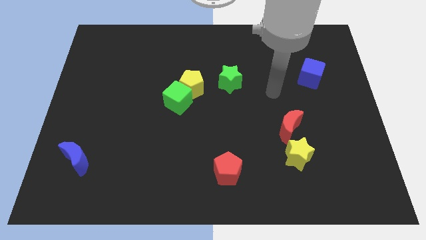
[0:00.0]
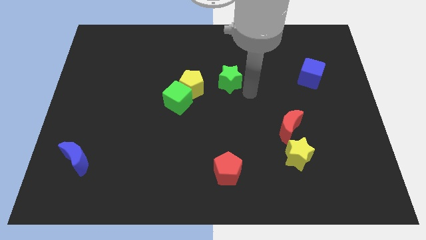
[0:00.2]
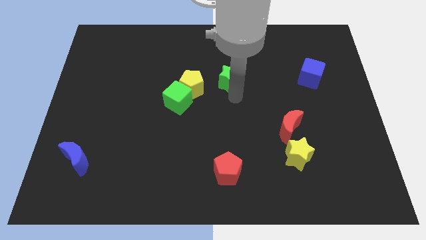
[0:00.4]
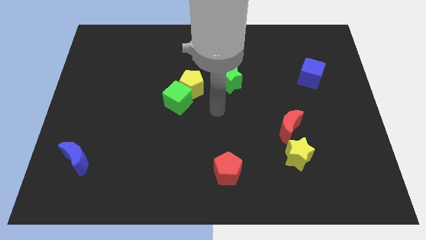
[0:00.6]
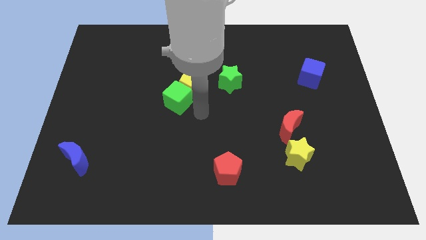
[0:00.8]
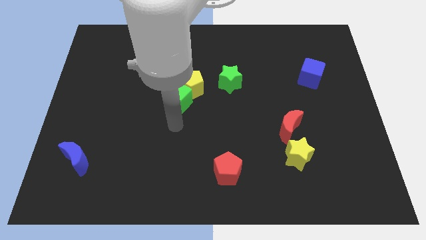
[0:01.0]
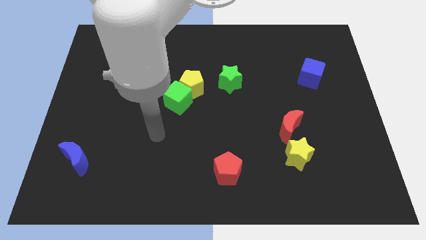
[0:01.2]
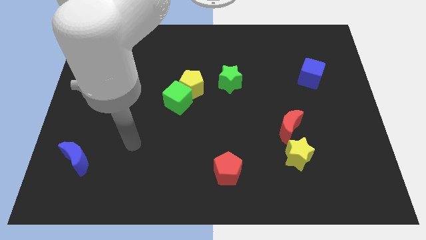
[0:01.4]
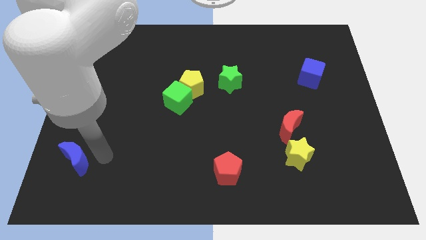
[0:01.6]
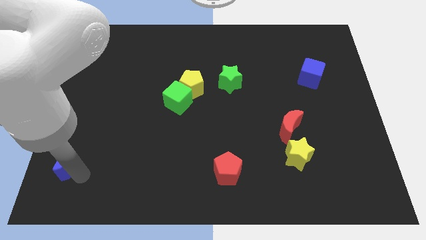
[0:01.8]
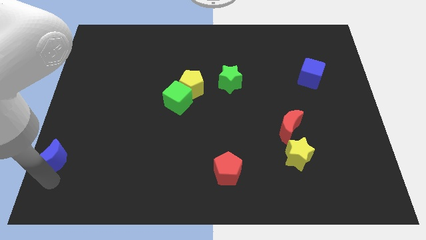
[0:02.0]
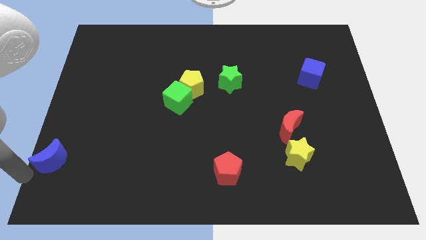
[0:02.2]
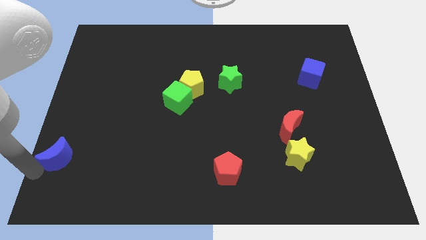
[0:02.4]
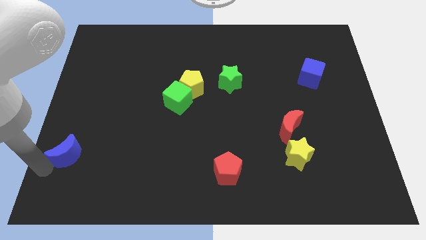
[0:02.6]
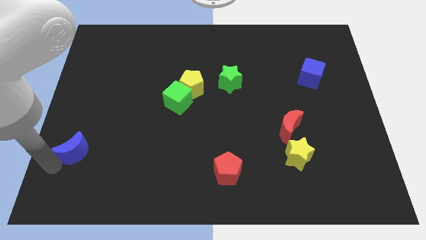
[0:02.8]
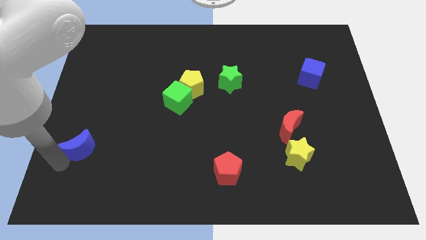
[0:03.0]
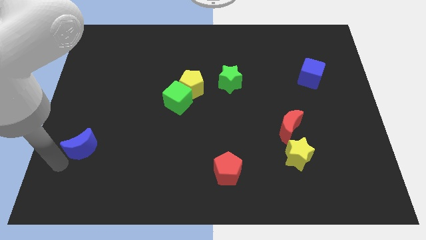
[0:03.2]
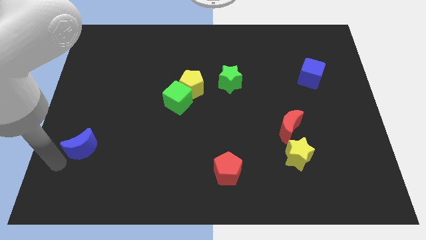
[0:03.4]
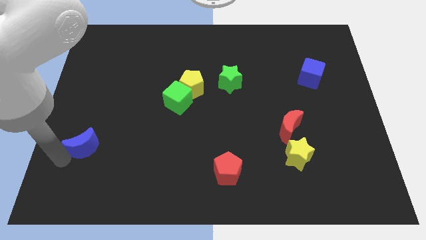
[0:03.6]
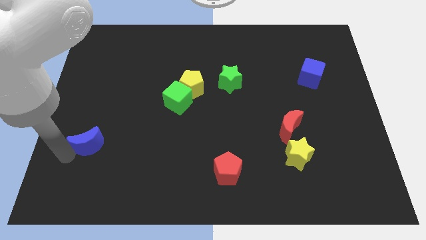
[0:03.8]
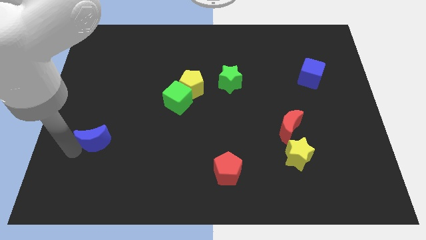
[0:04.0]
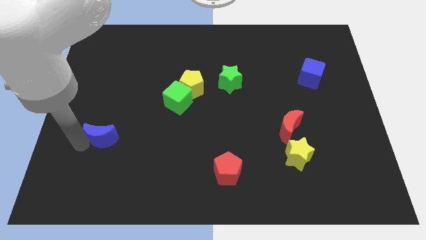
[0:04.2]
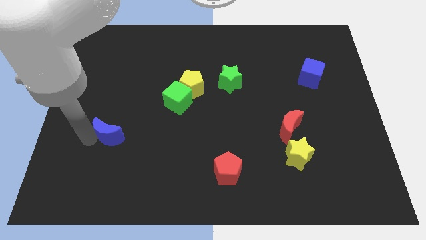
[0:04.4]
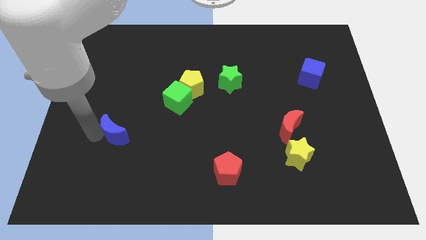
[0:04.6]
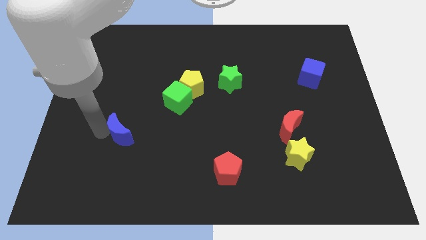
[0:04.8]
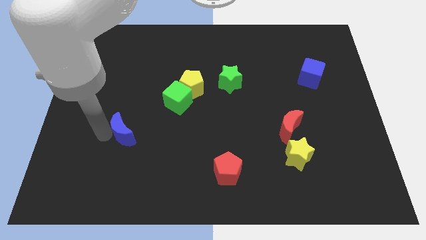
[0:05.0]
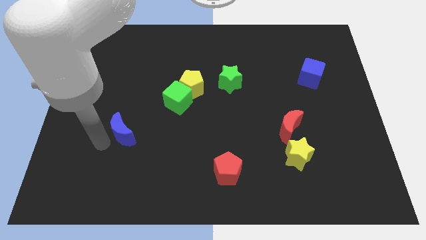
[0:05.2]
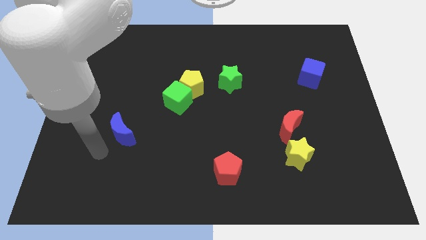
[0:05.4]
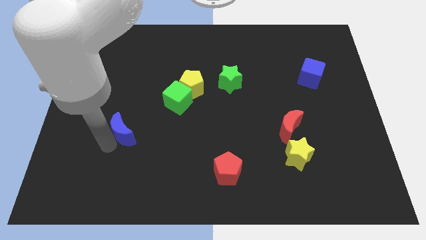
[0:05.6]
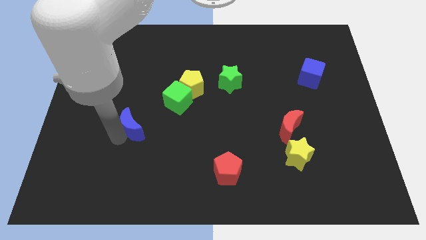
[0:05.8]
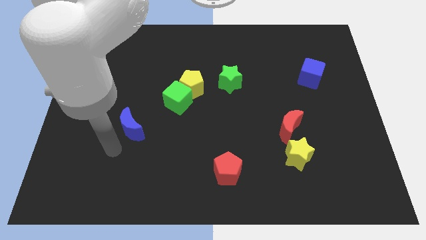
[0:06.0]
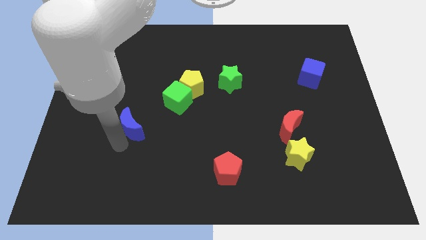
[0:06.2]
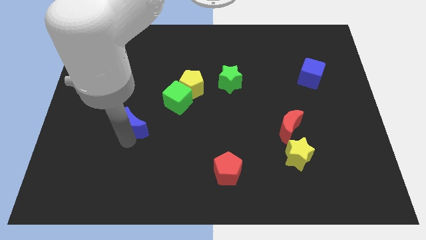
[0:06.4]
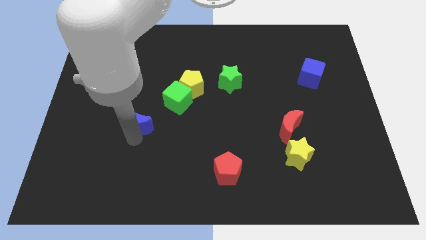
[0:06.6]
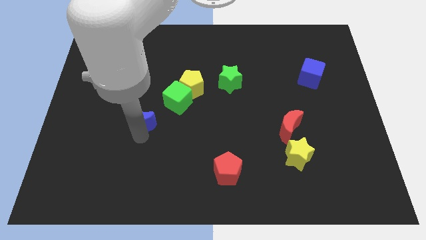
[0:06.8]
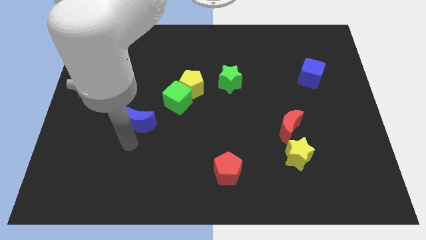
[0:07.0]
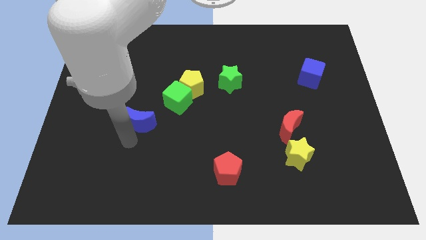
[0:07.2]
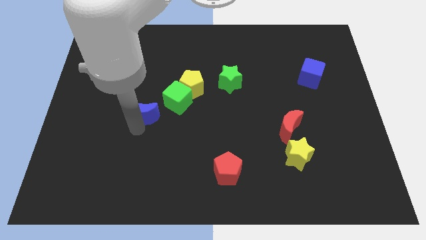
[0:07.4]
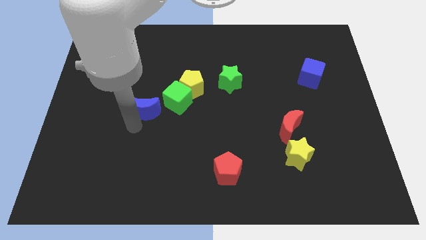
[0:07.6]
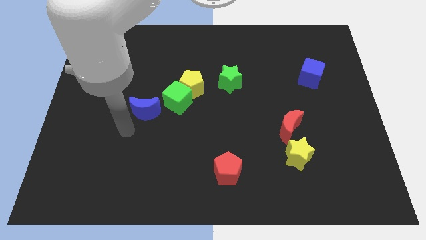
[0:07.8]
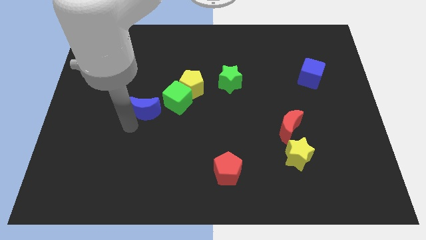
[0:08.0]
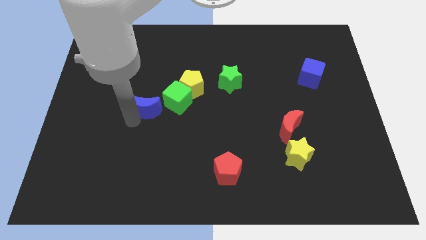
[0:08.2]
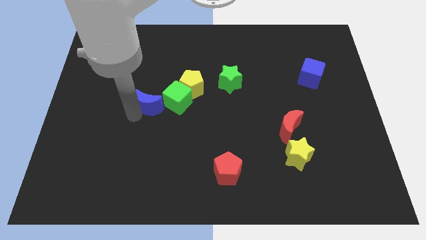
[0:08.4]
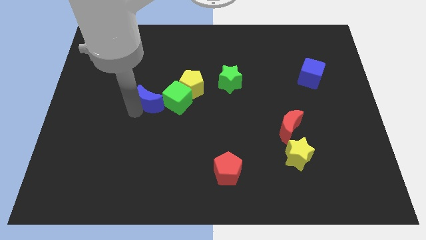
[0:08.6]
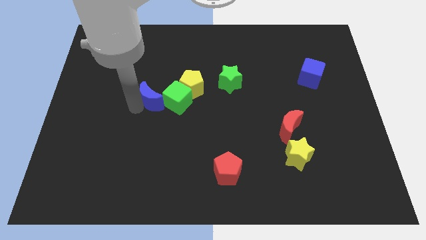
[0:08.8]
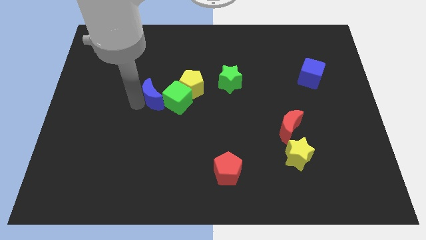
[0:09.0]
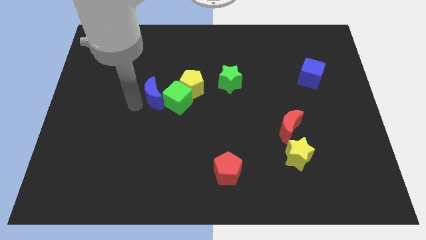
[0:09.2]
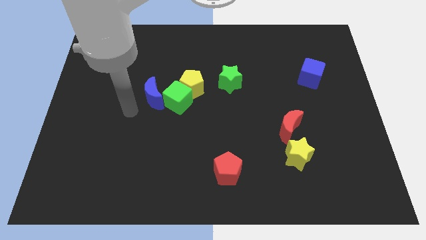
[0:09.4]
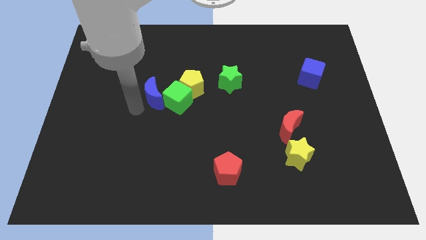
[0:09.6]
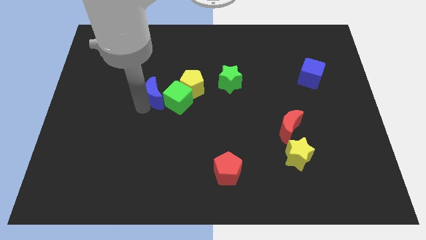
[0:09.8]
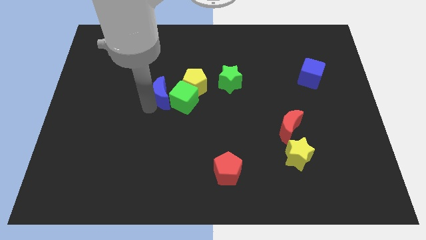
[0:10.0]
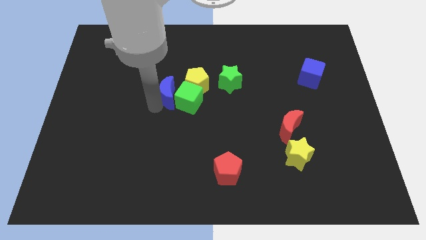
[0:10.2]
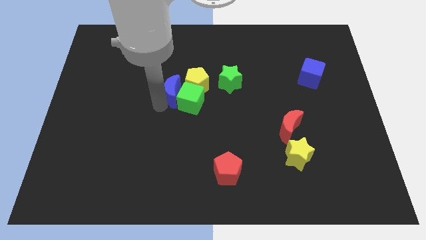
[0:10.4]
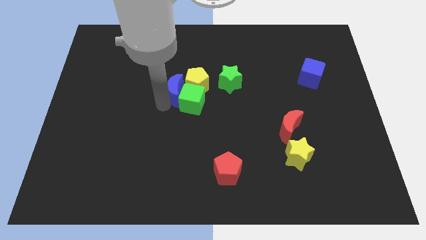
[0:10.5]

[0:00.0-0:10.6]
push the blue moon towards the yellow pentagon

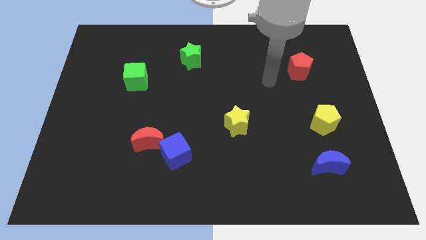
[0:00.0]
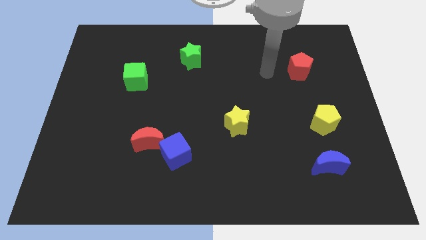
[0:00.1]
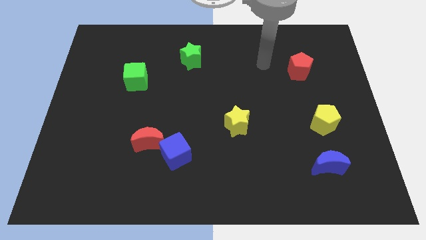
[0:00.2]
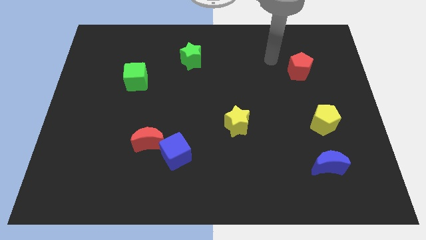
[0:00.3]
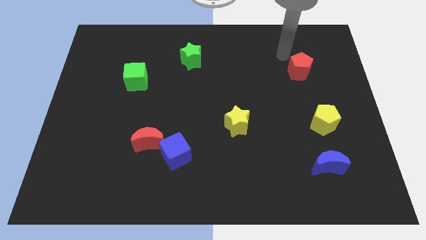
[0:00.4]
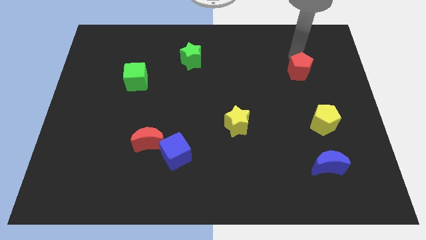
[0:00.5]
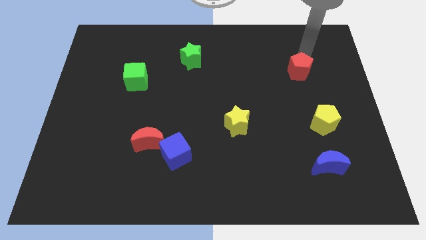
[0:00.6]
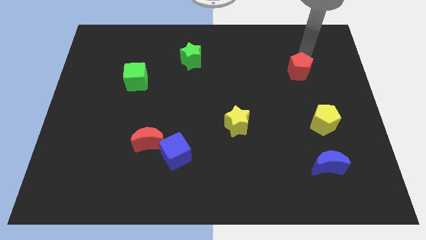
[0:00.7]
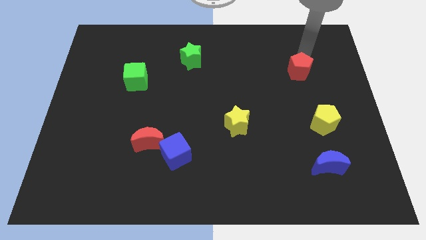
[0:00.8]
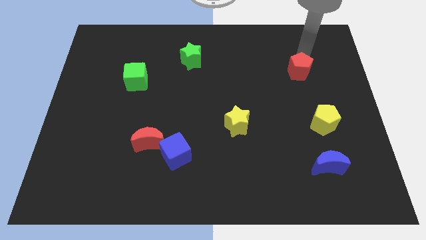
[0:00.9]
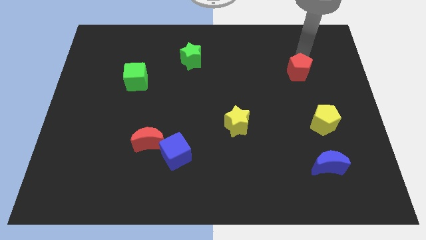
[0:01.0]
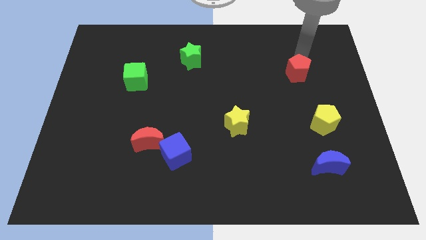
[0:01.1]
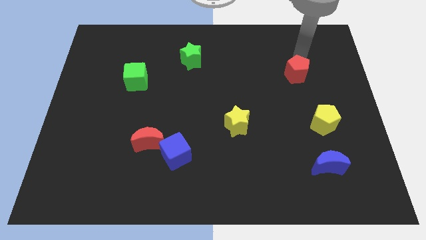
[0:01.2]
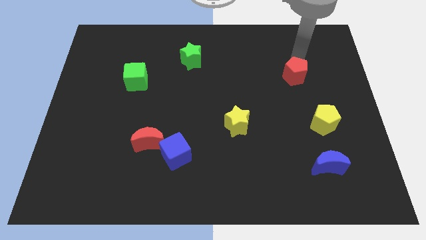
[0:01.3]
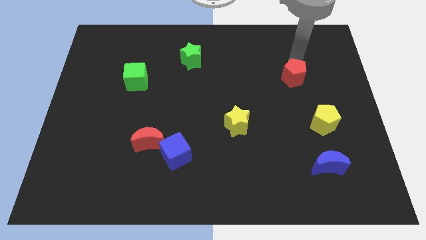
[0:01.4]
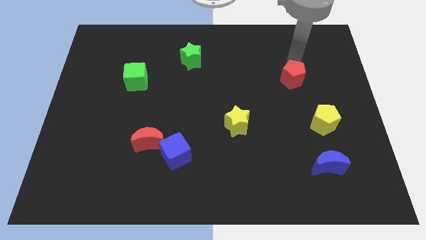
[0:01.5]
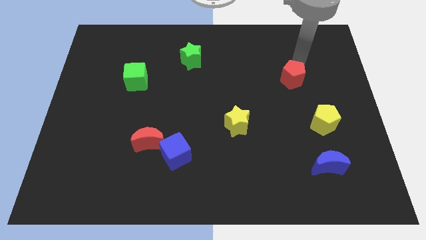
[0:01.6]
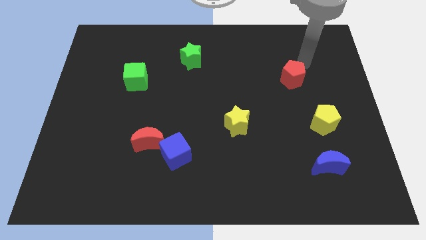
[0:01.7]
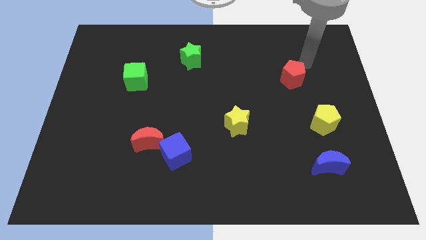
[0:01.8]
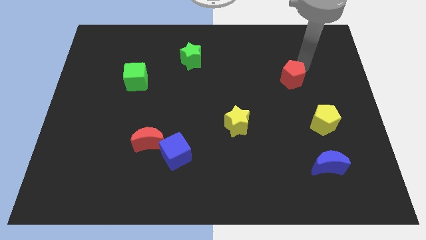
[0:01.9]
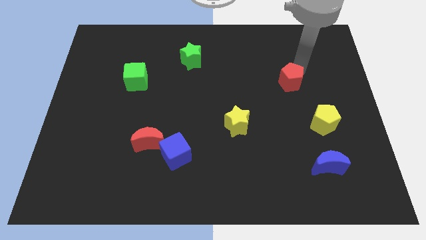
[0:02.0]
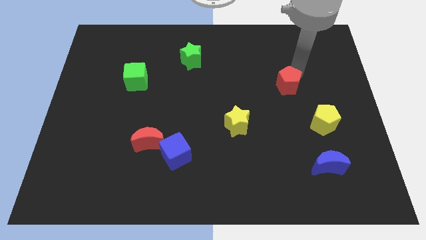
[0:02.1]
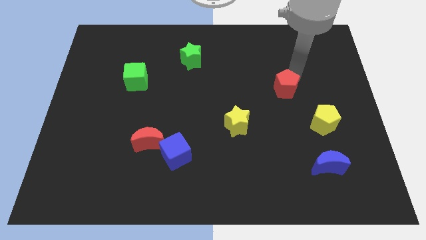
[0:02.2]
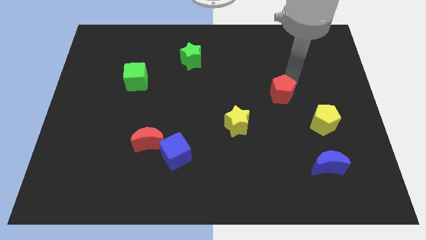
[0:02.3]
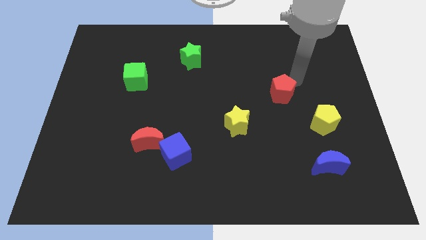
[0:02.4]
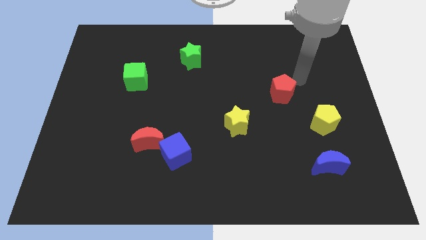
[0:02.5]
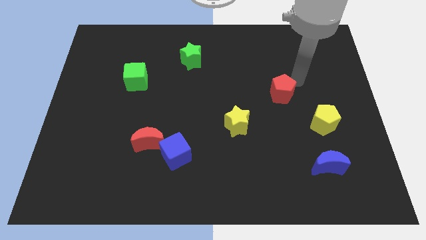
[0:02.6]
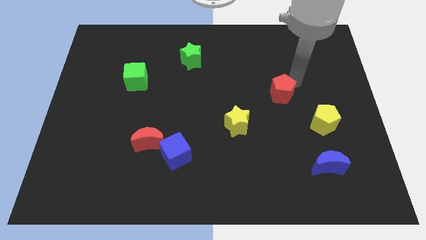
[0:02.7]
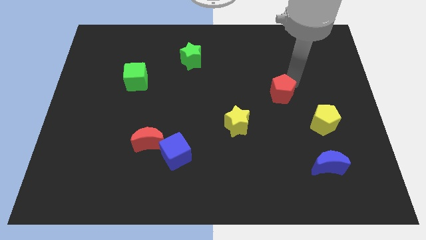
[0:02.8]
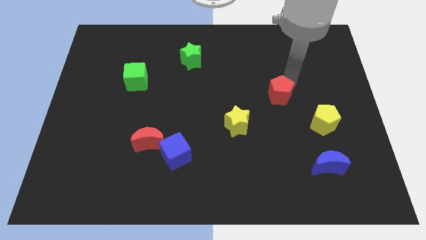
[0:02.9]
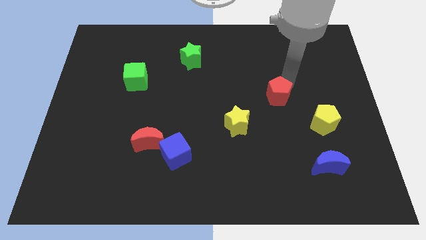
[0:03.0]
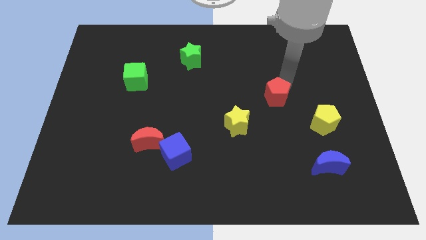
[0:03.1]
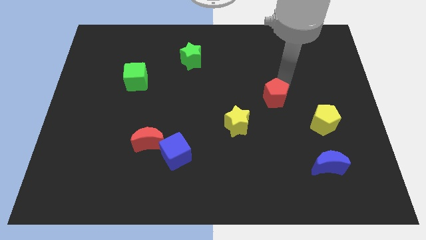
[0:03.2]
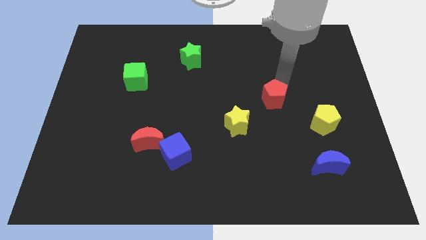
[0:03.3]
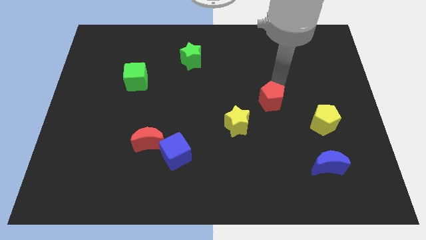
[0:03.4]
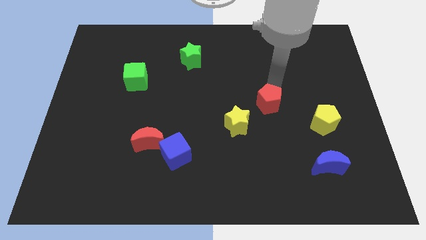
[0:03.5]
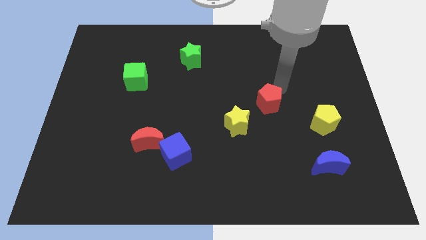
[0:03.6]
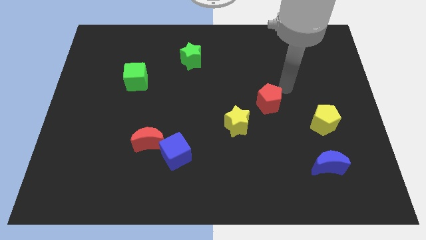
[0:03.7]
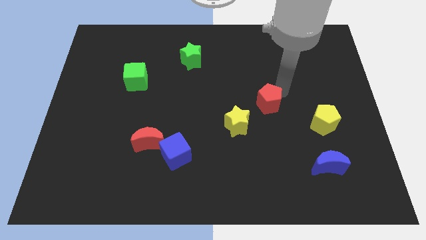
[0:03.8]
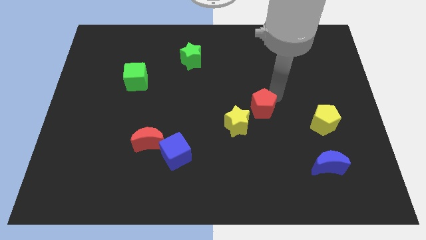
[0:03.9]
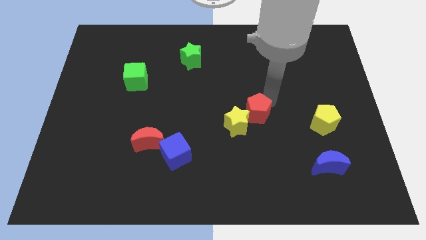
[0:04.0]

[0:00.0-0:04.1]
push the red pentagon close to the yellow star
